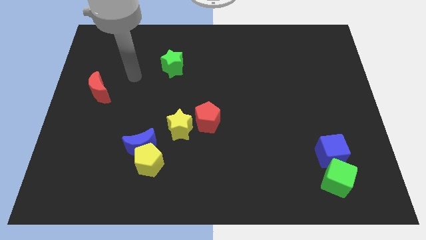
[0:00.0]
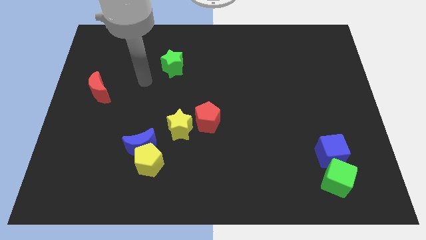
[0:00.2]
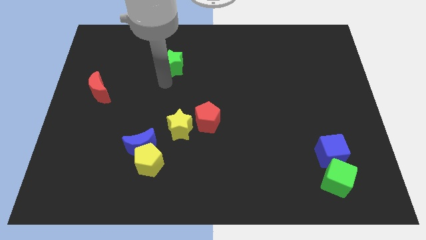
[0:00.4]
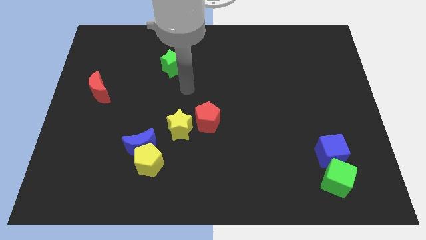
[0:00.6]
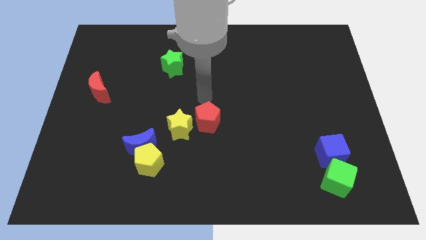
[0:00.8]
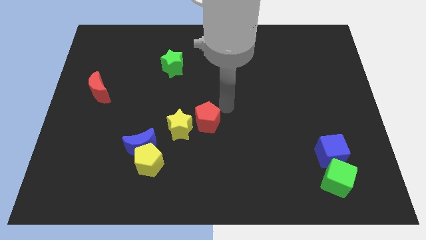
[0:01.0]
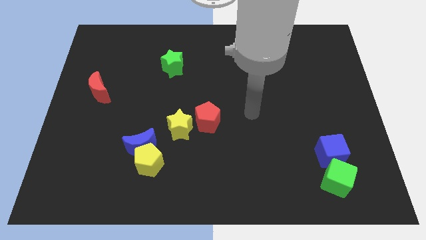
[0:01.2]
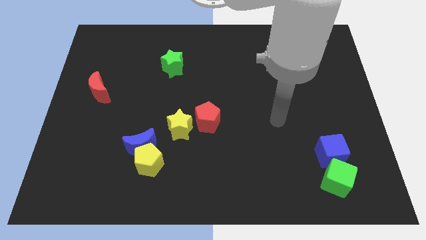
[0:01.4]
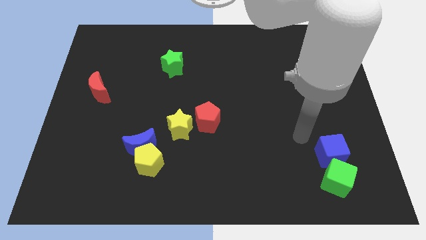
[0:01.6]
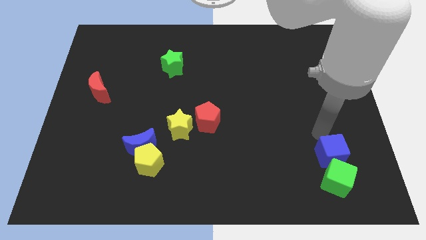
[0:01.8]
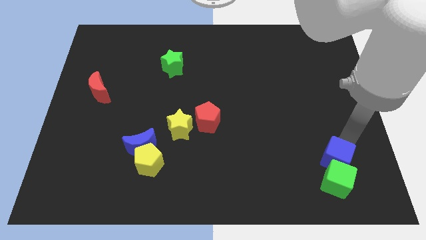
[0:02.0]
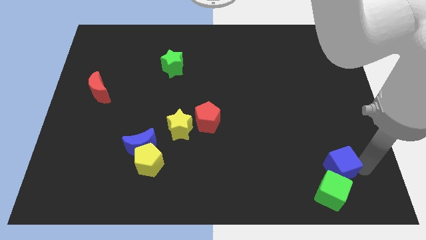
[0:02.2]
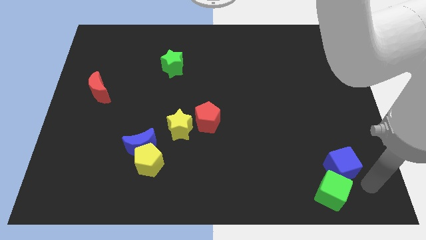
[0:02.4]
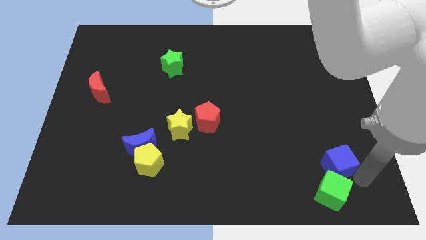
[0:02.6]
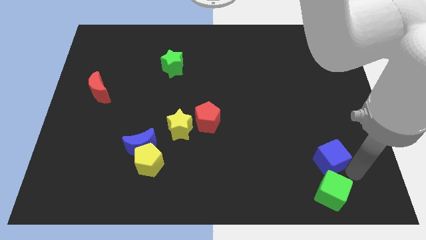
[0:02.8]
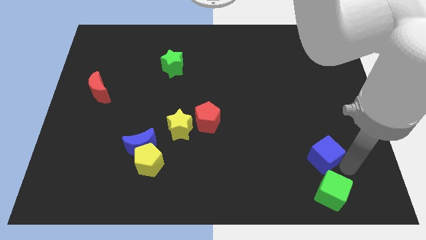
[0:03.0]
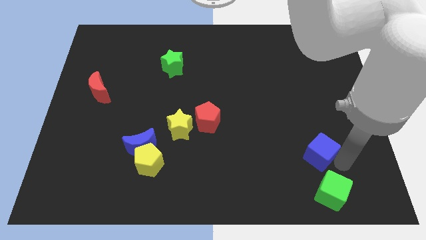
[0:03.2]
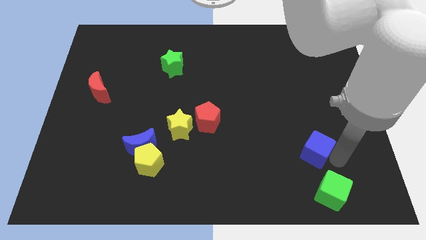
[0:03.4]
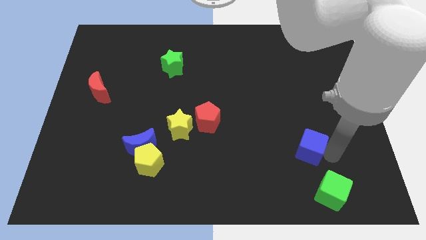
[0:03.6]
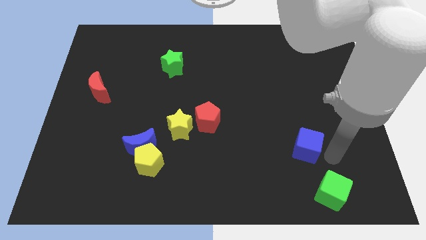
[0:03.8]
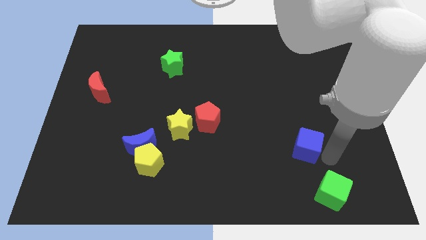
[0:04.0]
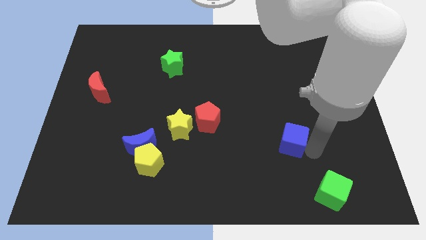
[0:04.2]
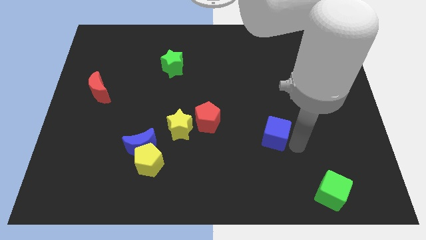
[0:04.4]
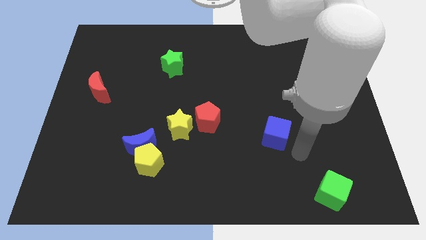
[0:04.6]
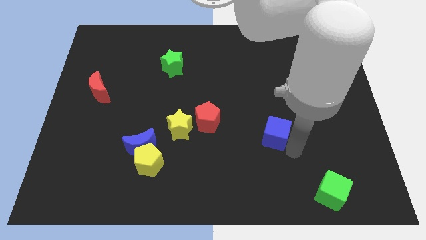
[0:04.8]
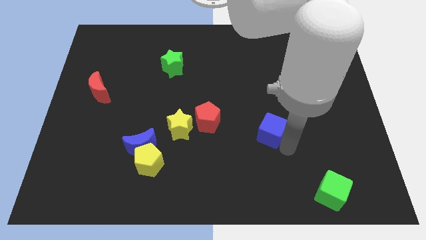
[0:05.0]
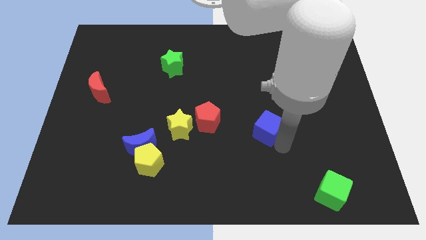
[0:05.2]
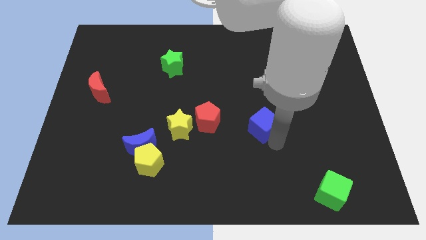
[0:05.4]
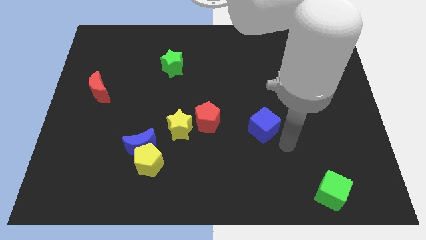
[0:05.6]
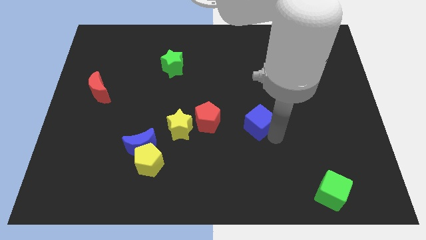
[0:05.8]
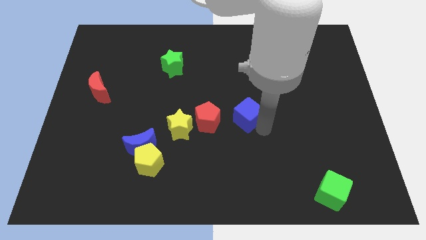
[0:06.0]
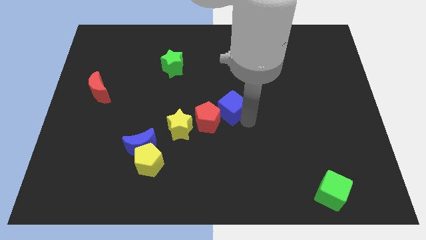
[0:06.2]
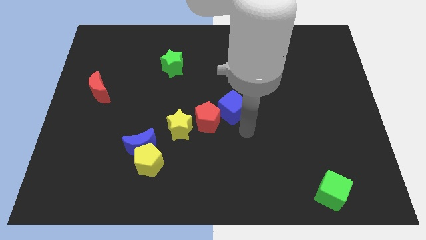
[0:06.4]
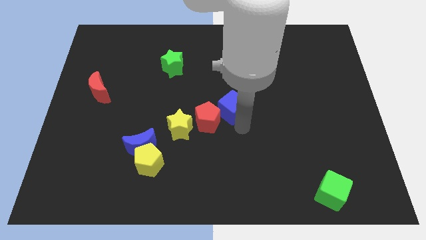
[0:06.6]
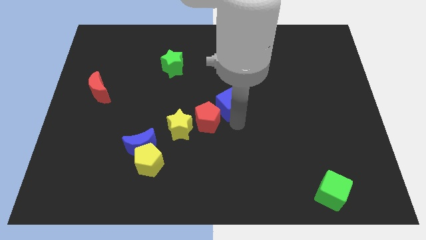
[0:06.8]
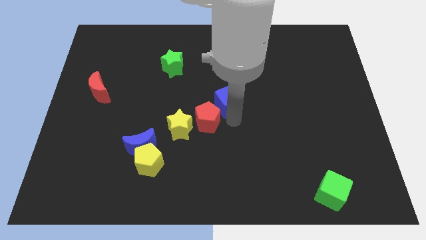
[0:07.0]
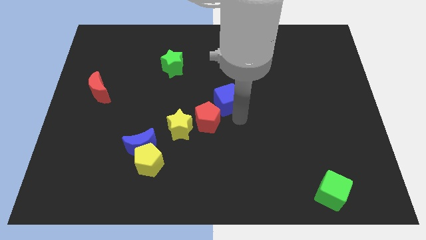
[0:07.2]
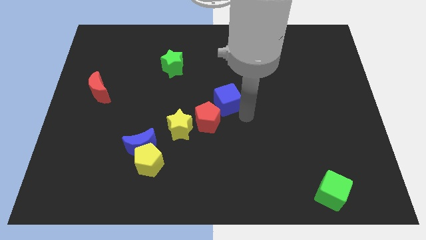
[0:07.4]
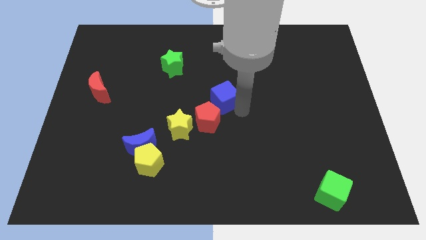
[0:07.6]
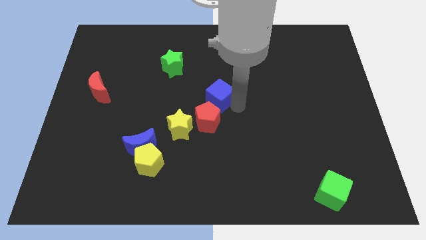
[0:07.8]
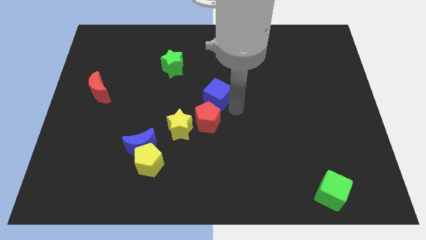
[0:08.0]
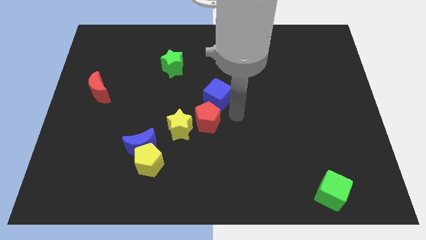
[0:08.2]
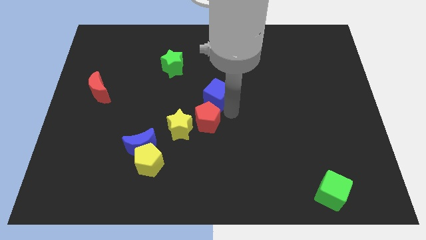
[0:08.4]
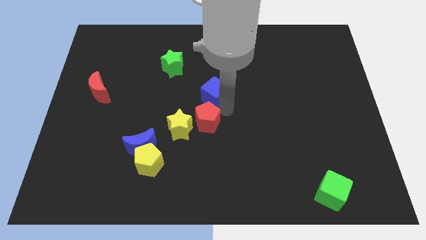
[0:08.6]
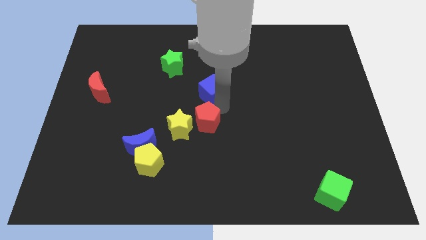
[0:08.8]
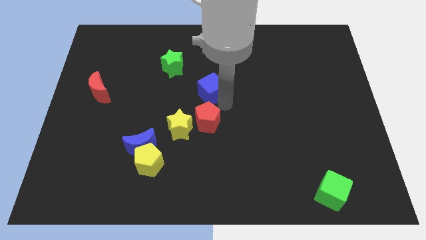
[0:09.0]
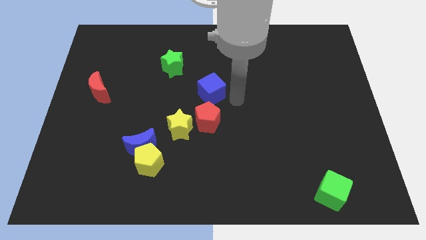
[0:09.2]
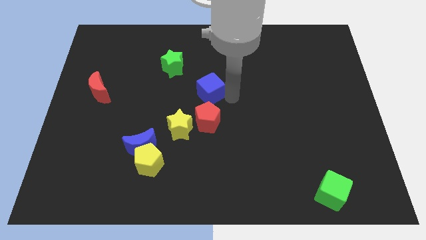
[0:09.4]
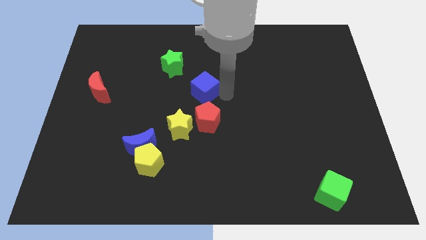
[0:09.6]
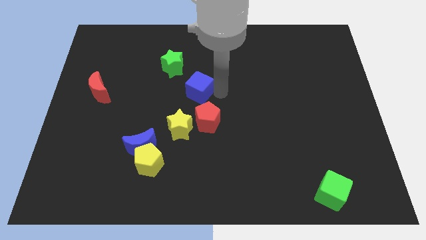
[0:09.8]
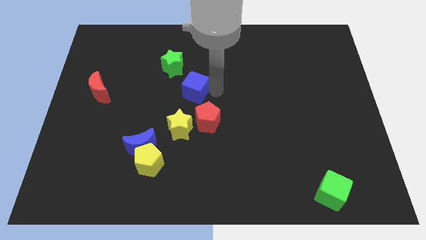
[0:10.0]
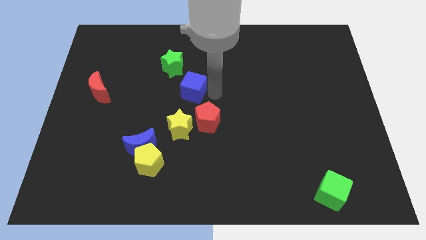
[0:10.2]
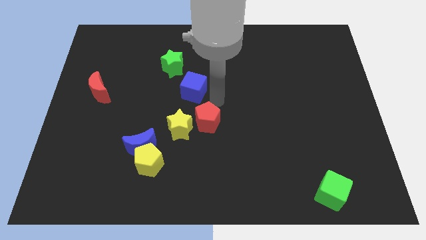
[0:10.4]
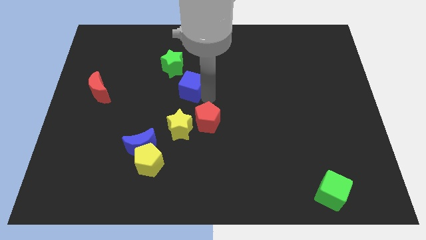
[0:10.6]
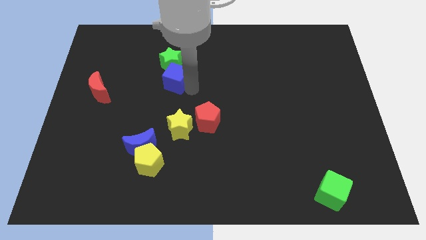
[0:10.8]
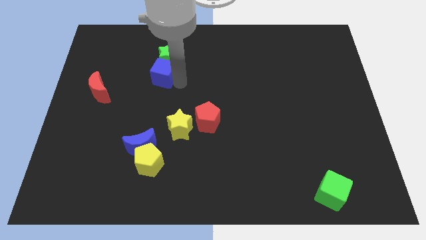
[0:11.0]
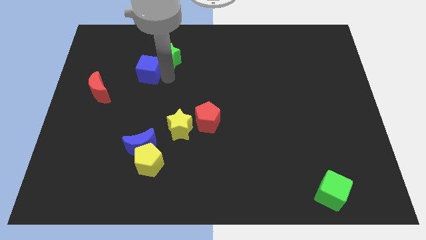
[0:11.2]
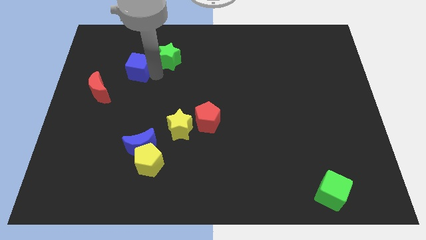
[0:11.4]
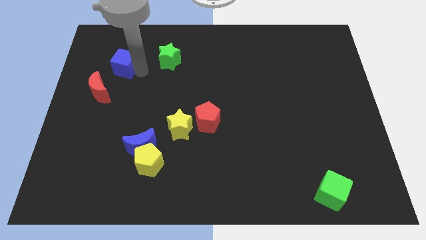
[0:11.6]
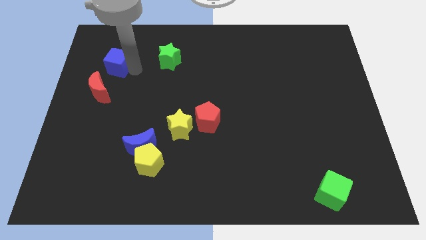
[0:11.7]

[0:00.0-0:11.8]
push the blue cube above the red moon
